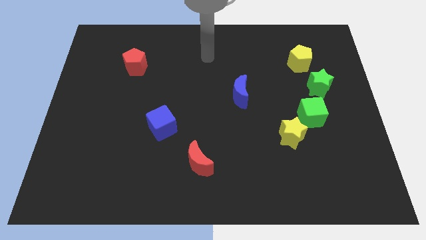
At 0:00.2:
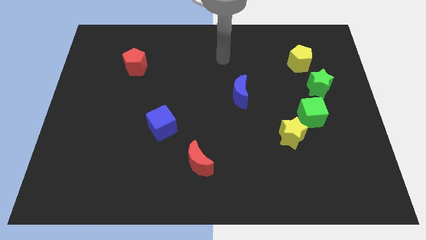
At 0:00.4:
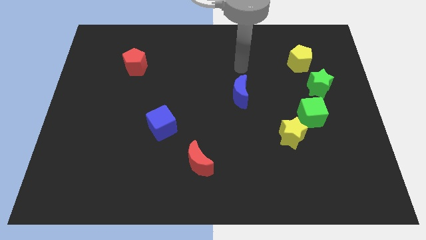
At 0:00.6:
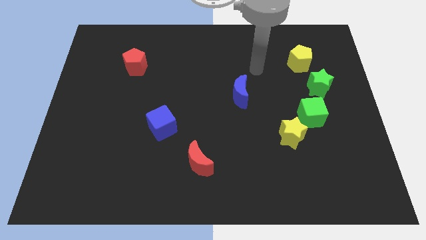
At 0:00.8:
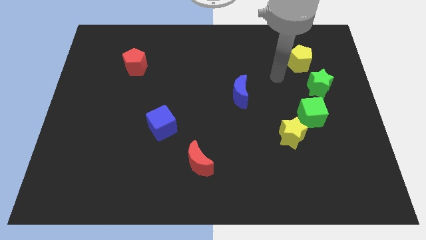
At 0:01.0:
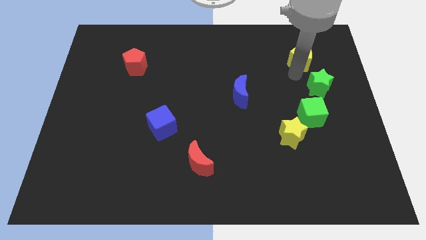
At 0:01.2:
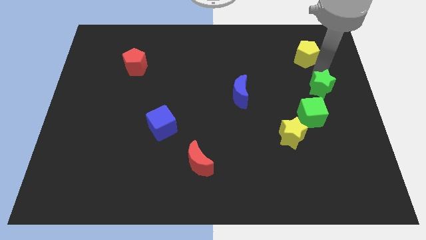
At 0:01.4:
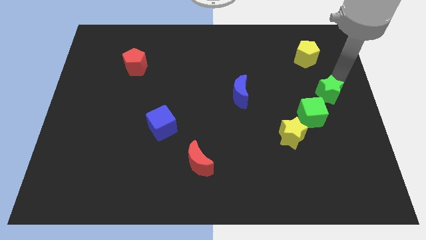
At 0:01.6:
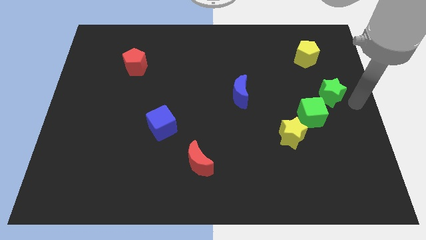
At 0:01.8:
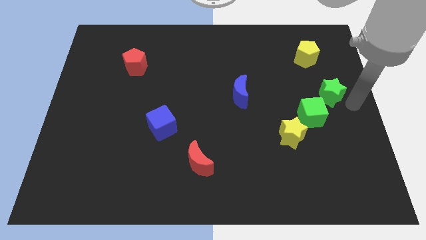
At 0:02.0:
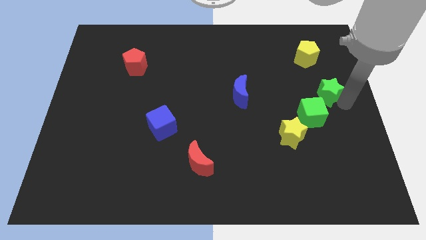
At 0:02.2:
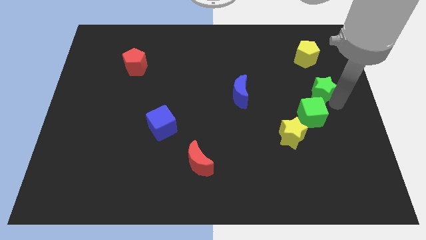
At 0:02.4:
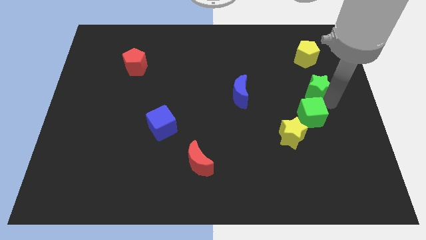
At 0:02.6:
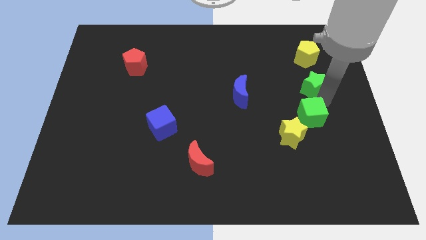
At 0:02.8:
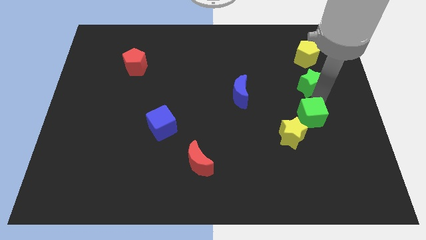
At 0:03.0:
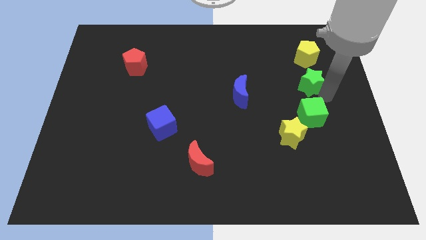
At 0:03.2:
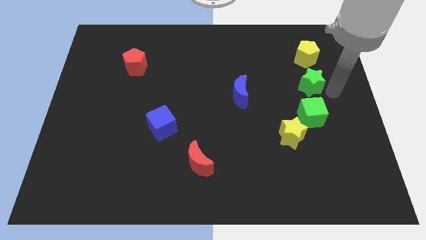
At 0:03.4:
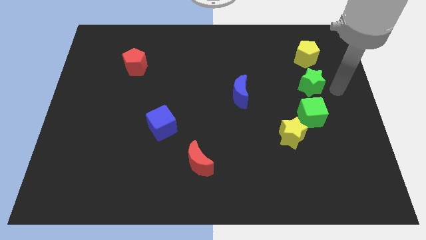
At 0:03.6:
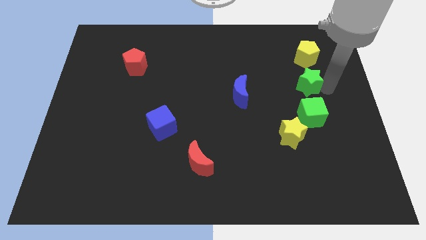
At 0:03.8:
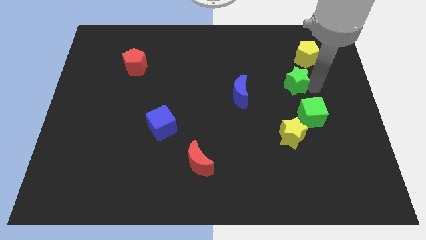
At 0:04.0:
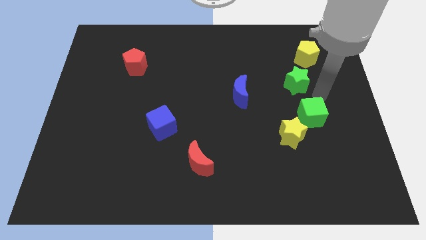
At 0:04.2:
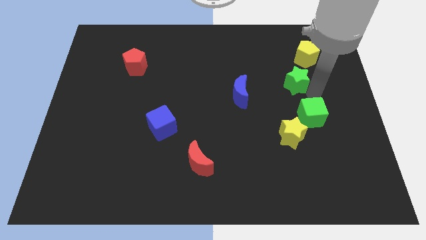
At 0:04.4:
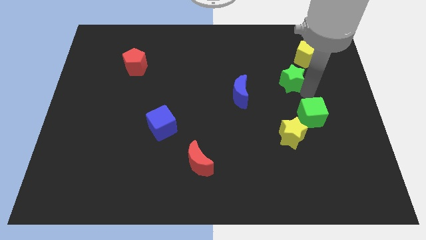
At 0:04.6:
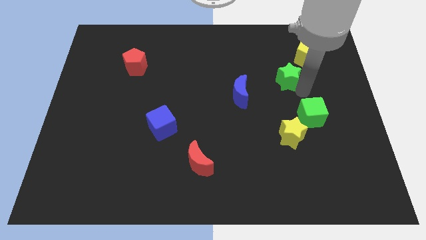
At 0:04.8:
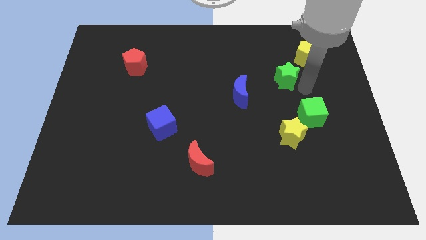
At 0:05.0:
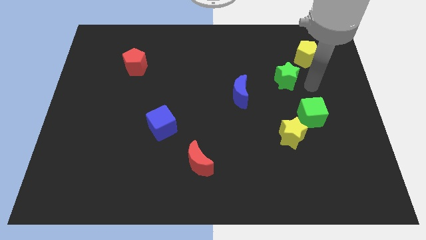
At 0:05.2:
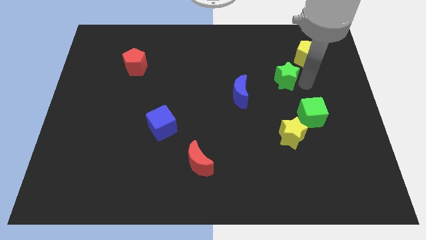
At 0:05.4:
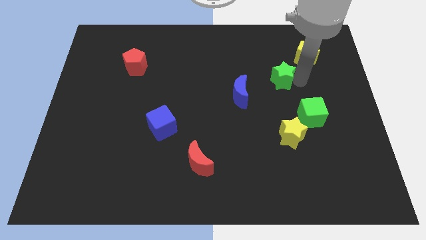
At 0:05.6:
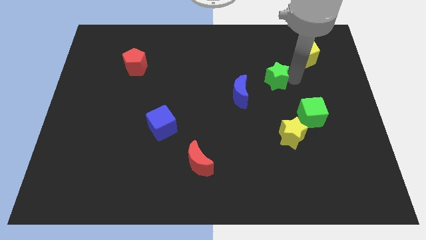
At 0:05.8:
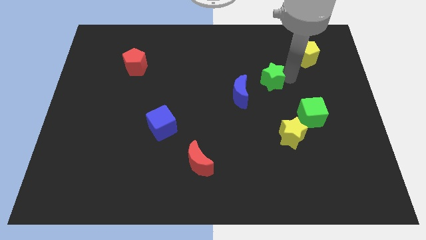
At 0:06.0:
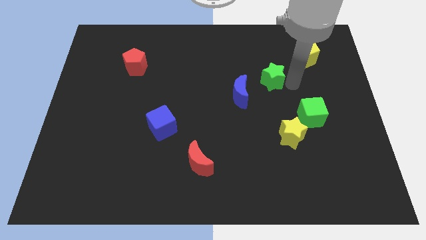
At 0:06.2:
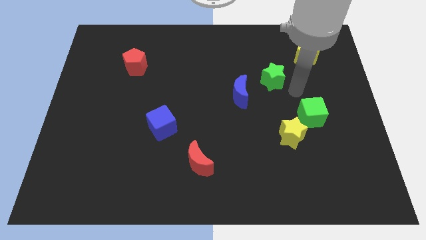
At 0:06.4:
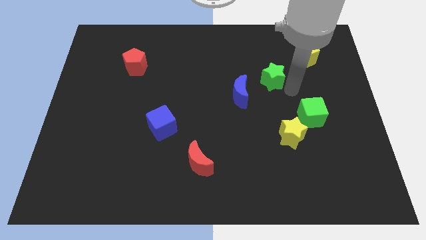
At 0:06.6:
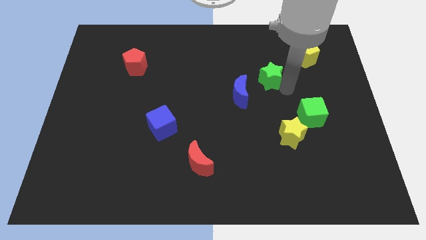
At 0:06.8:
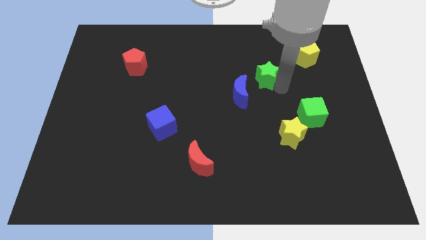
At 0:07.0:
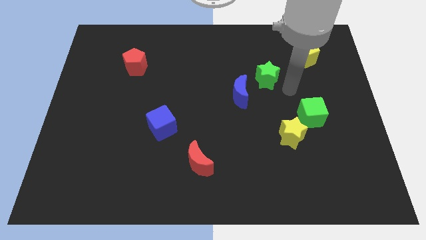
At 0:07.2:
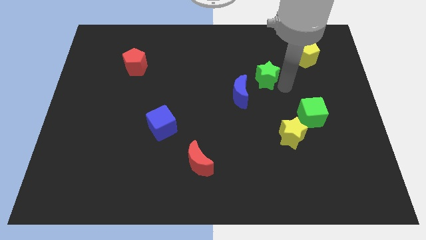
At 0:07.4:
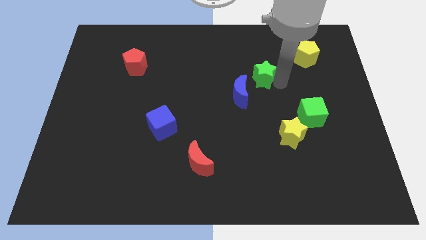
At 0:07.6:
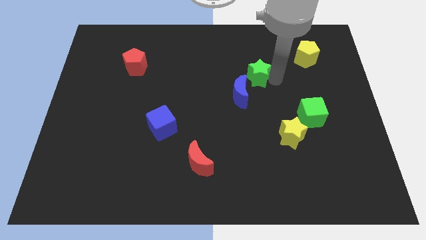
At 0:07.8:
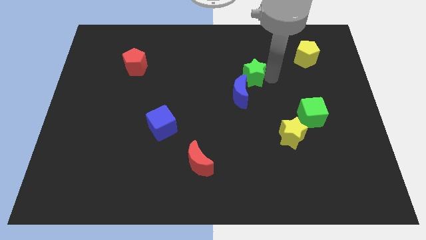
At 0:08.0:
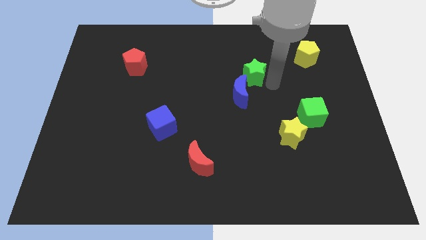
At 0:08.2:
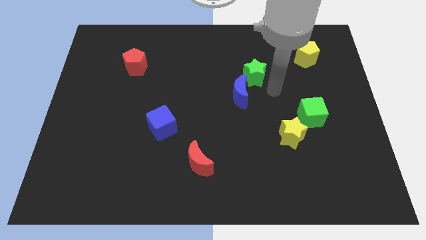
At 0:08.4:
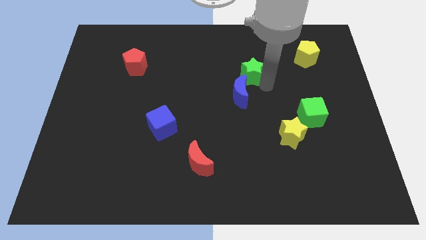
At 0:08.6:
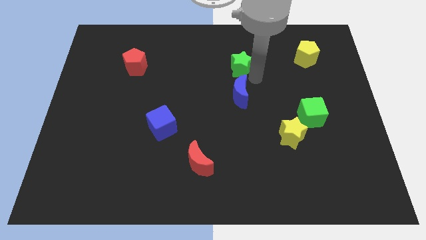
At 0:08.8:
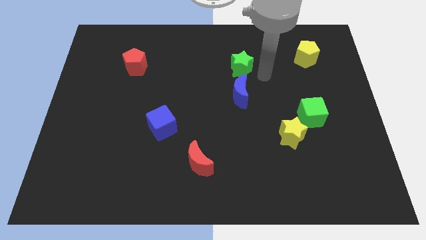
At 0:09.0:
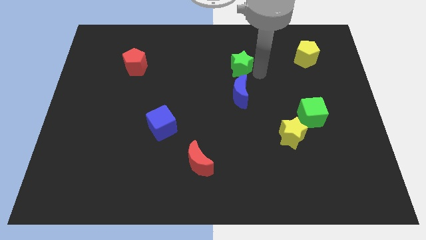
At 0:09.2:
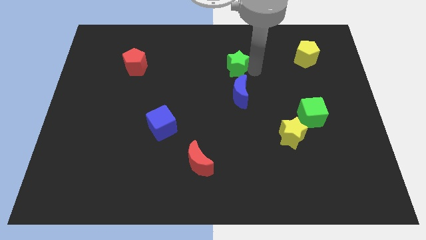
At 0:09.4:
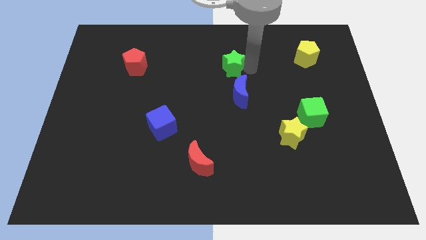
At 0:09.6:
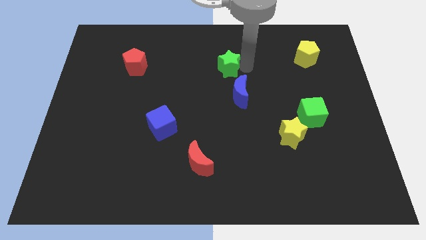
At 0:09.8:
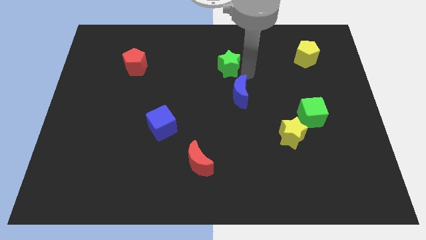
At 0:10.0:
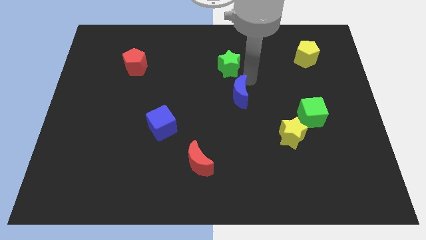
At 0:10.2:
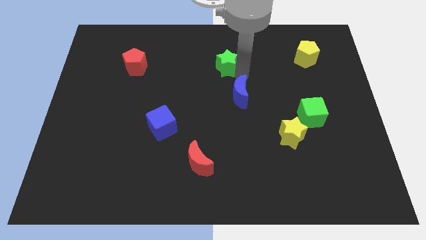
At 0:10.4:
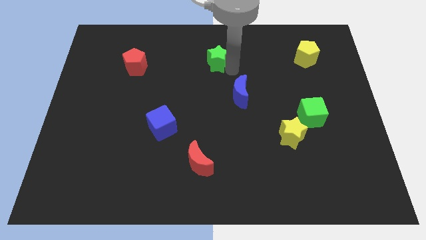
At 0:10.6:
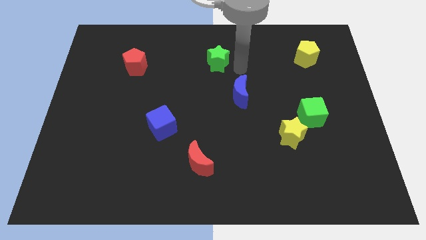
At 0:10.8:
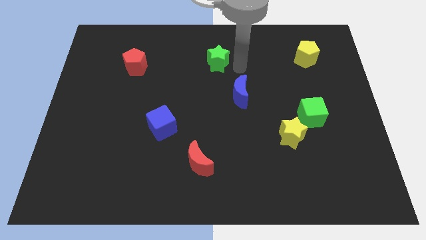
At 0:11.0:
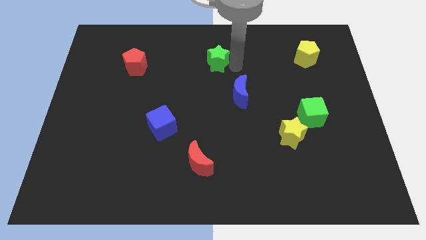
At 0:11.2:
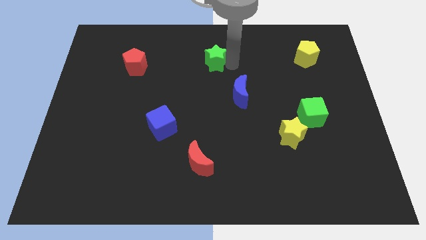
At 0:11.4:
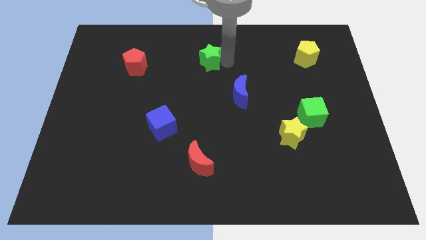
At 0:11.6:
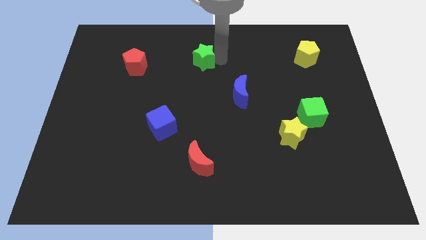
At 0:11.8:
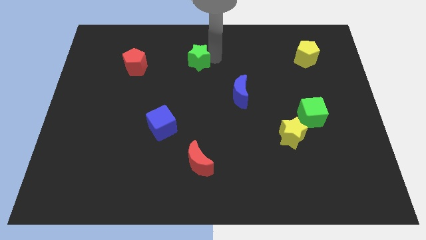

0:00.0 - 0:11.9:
move the green star just right of the red pentagon

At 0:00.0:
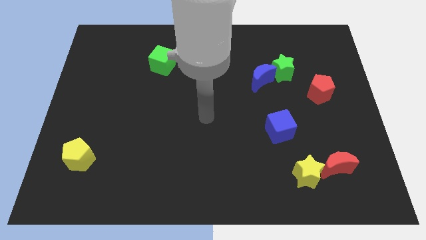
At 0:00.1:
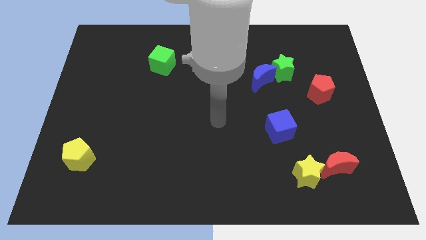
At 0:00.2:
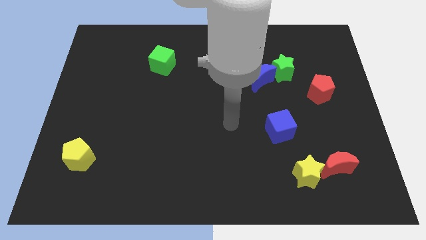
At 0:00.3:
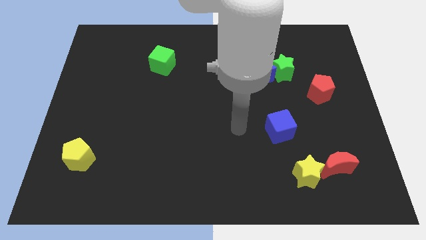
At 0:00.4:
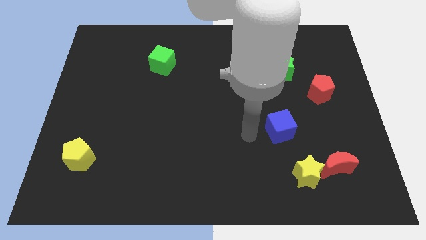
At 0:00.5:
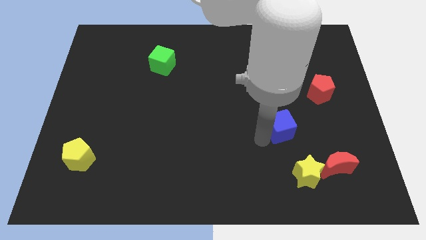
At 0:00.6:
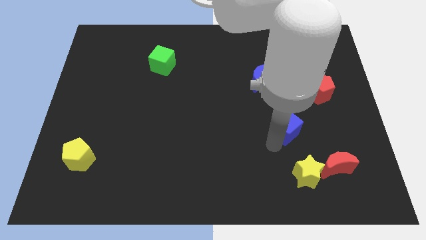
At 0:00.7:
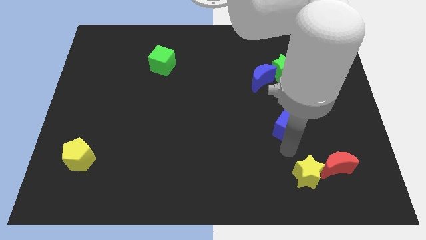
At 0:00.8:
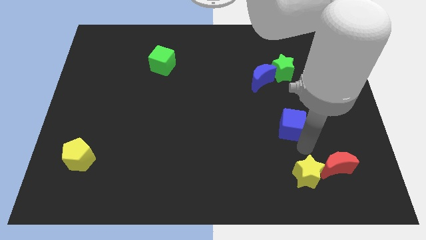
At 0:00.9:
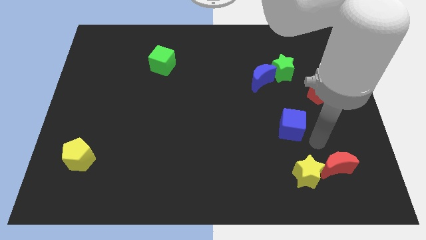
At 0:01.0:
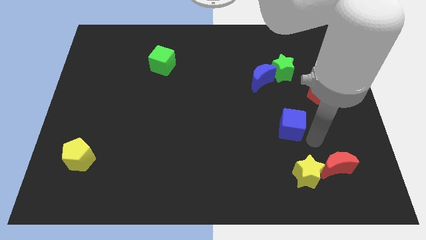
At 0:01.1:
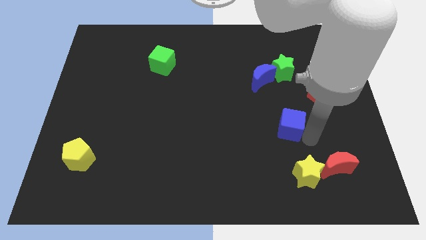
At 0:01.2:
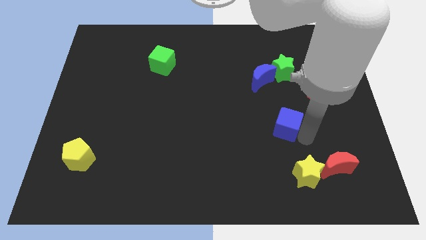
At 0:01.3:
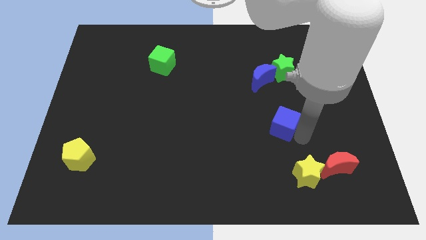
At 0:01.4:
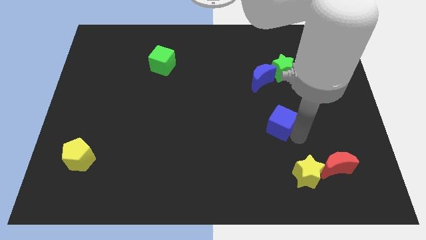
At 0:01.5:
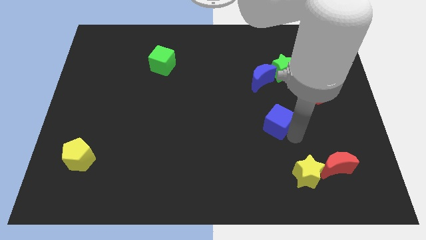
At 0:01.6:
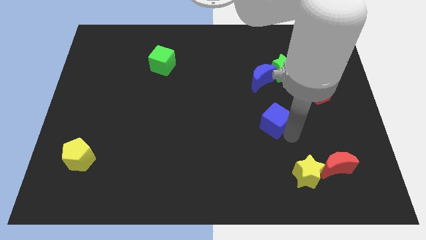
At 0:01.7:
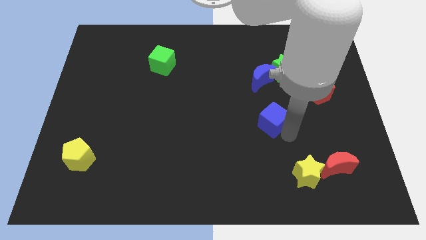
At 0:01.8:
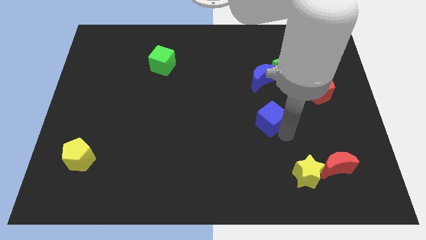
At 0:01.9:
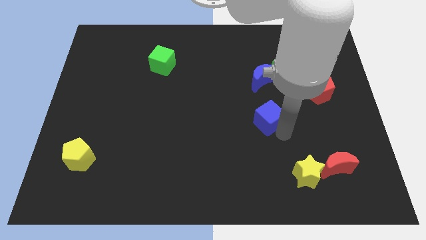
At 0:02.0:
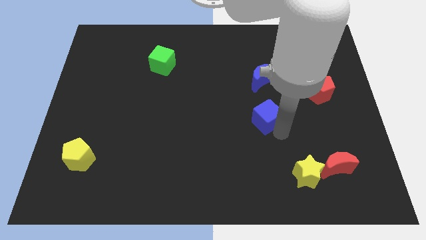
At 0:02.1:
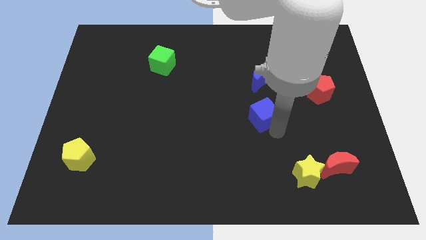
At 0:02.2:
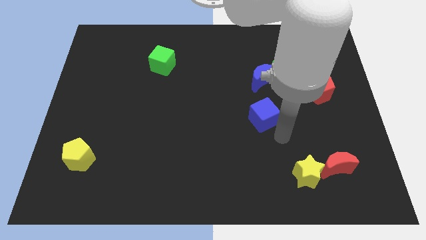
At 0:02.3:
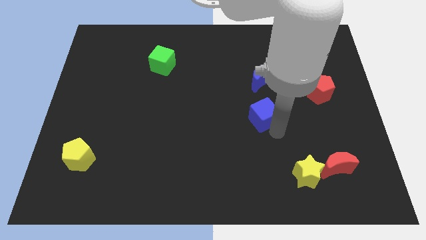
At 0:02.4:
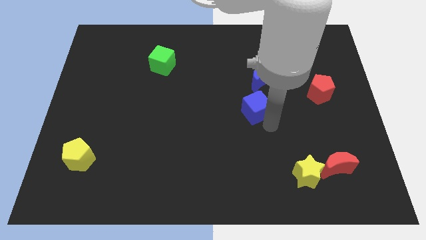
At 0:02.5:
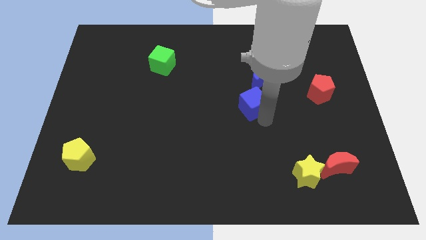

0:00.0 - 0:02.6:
put the blue cube to the bottom left side of the blue moon
